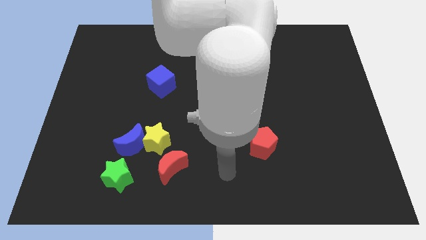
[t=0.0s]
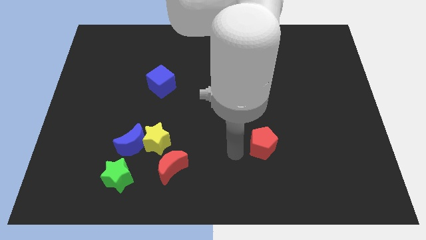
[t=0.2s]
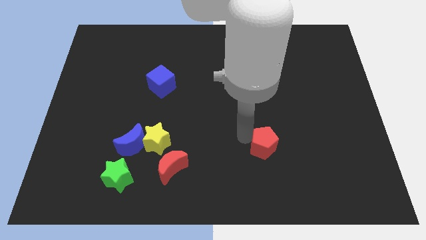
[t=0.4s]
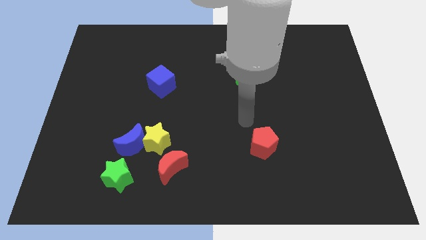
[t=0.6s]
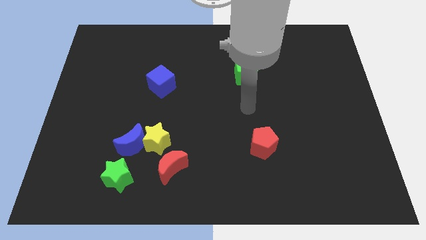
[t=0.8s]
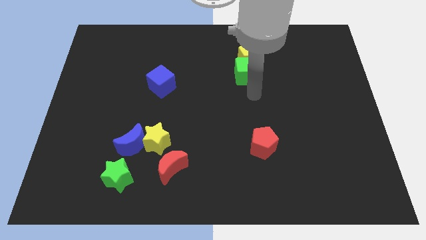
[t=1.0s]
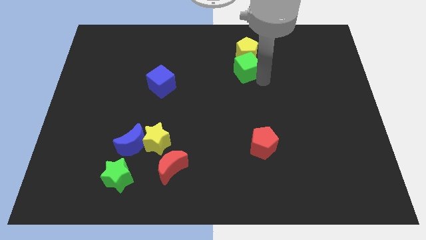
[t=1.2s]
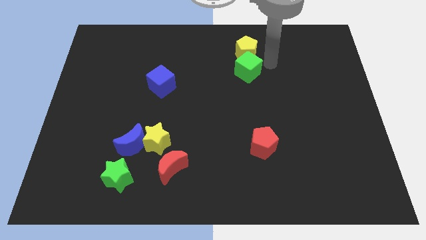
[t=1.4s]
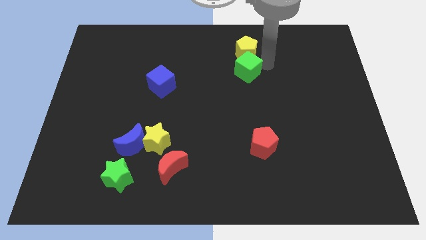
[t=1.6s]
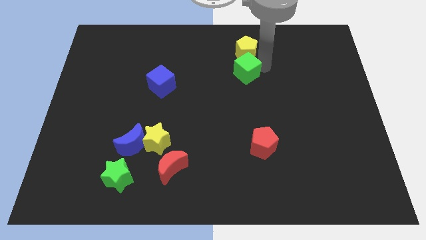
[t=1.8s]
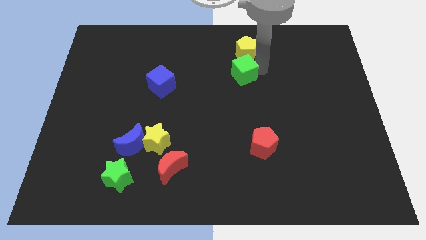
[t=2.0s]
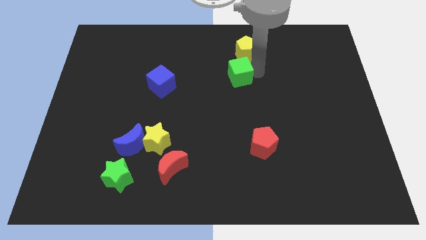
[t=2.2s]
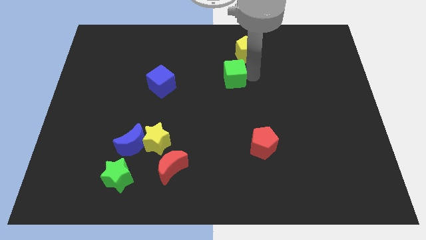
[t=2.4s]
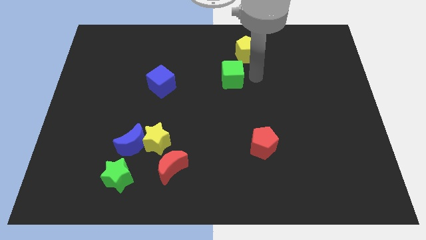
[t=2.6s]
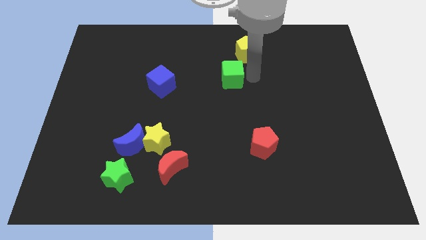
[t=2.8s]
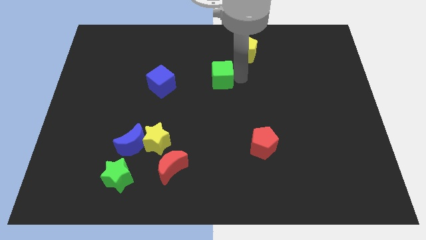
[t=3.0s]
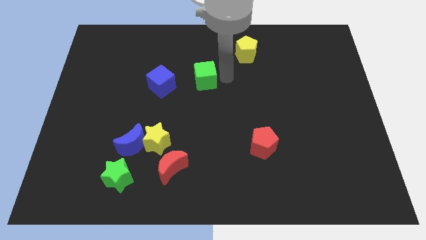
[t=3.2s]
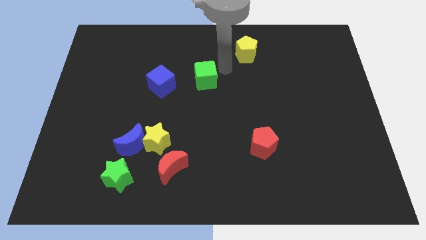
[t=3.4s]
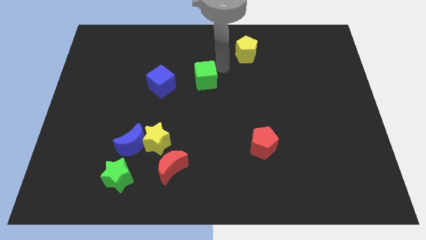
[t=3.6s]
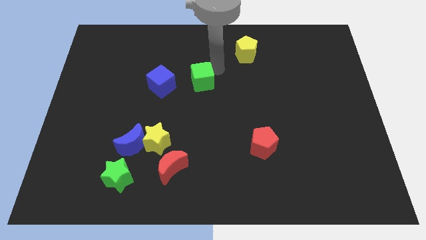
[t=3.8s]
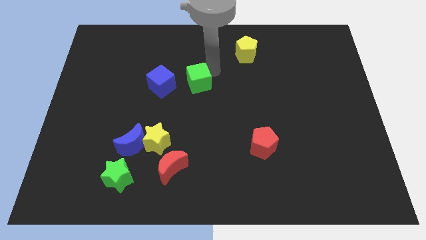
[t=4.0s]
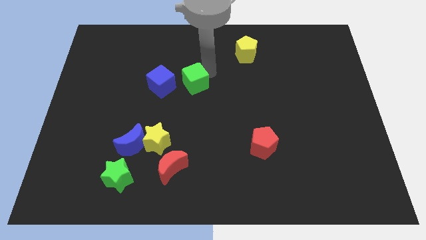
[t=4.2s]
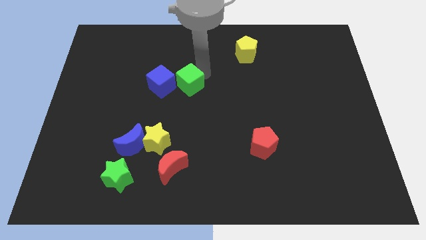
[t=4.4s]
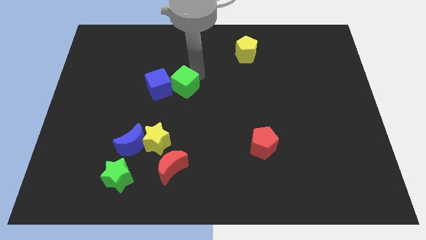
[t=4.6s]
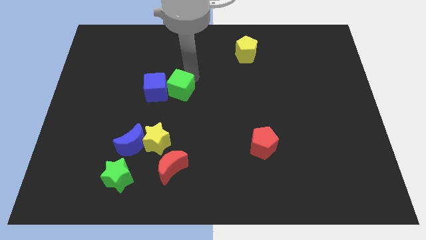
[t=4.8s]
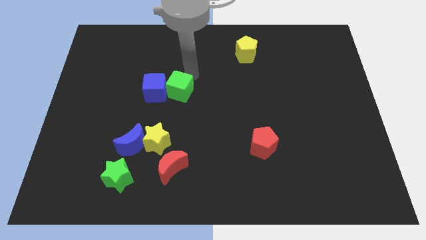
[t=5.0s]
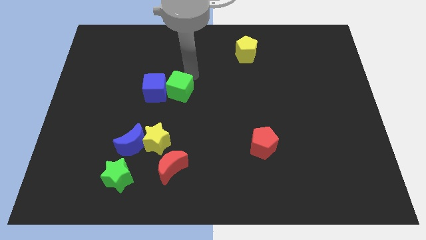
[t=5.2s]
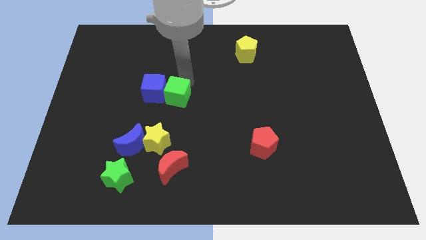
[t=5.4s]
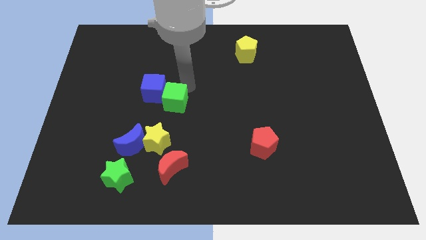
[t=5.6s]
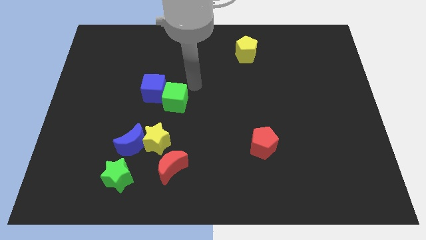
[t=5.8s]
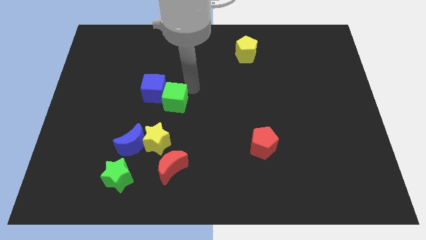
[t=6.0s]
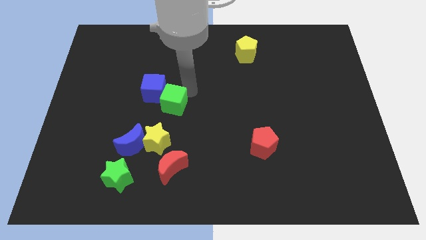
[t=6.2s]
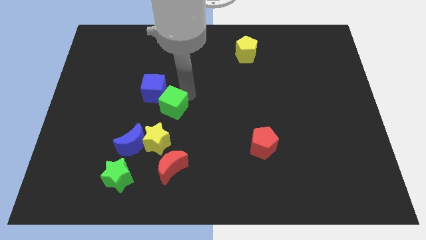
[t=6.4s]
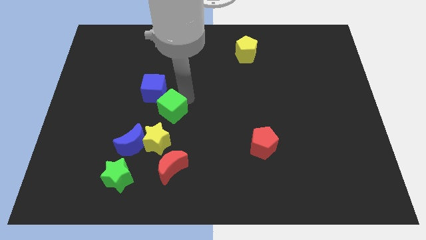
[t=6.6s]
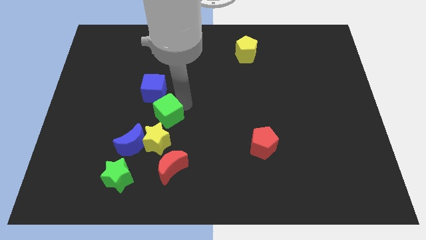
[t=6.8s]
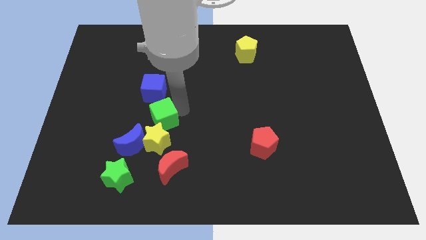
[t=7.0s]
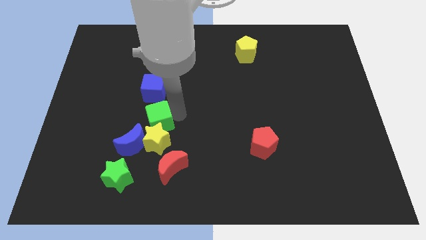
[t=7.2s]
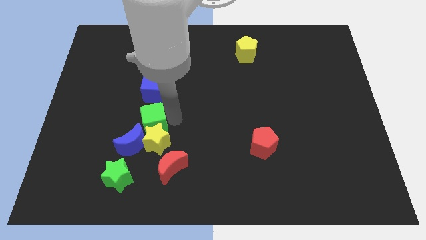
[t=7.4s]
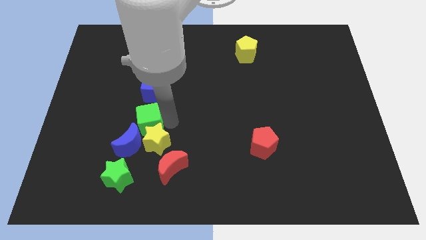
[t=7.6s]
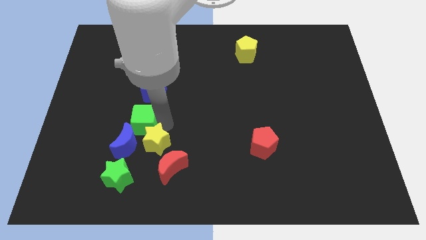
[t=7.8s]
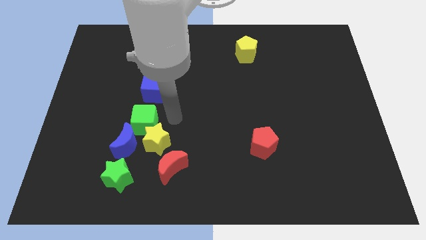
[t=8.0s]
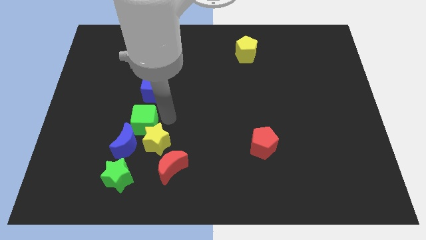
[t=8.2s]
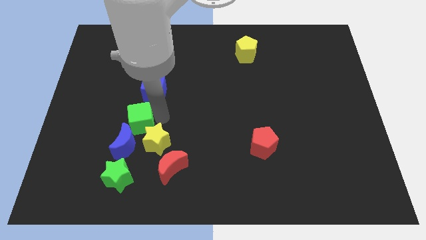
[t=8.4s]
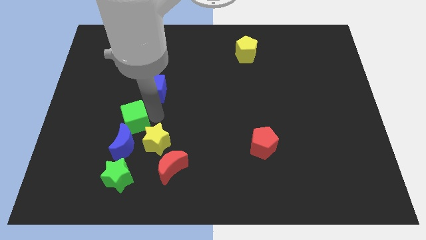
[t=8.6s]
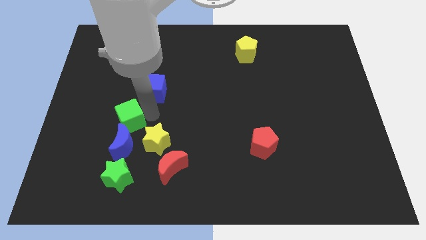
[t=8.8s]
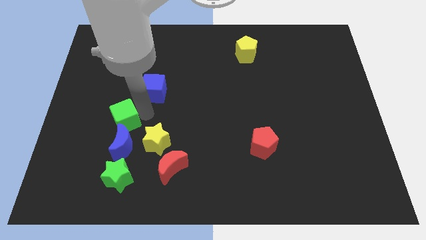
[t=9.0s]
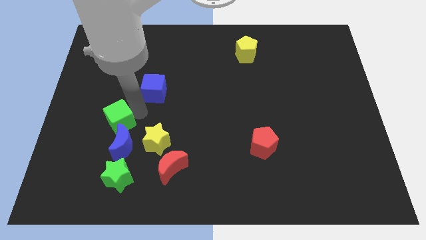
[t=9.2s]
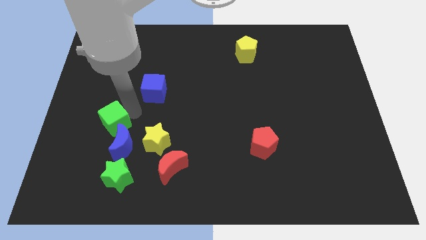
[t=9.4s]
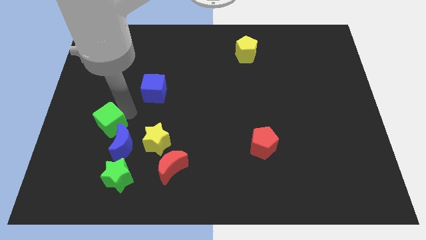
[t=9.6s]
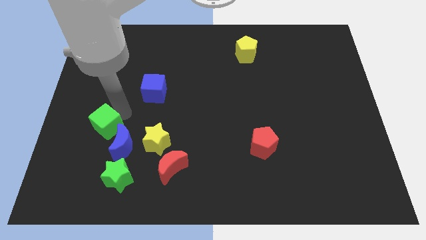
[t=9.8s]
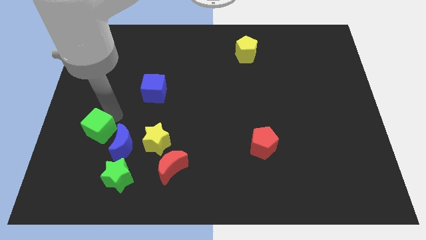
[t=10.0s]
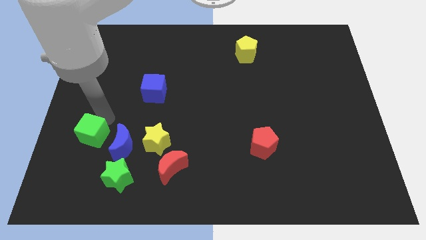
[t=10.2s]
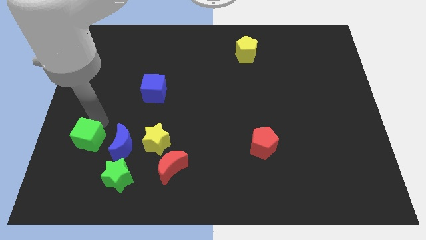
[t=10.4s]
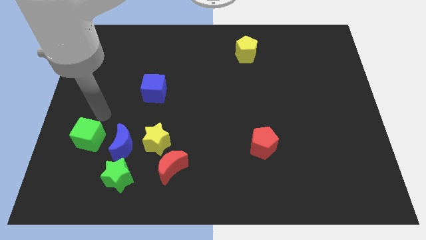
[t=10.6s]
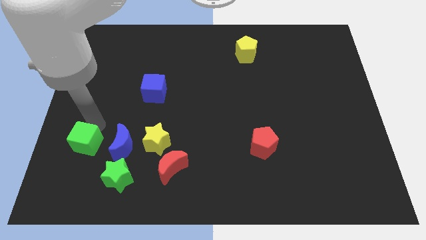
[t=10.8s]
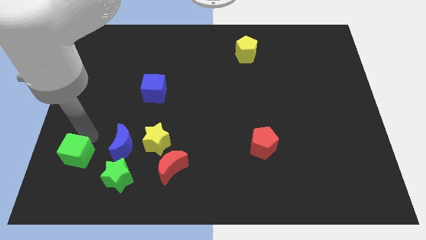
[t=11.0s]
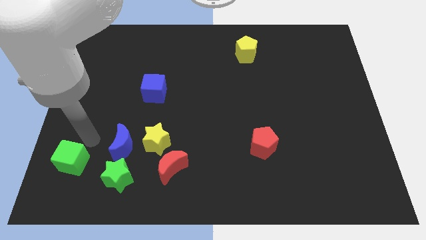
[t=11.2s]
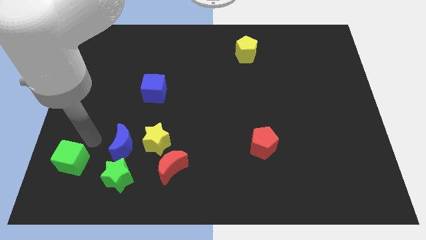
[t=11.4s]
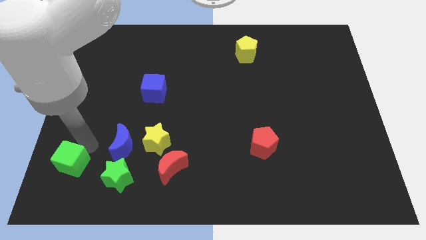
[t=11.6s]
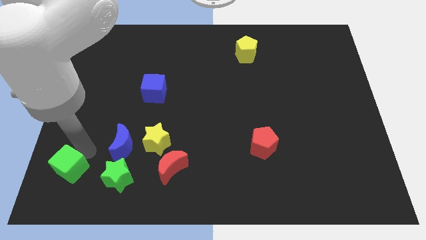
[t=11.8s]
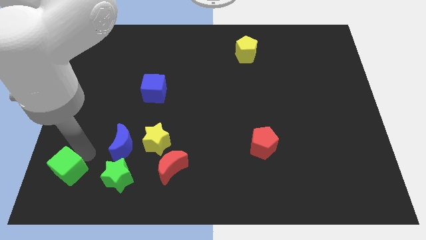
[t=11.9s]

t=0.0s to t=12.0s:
slide the green cube to the bottom left of the board
